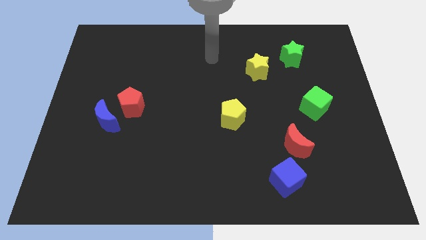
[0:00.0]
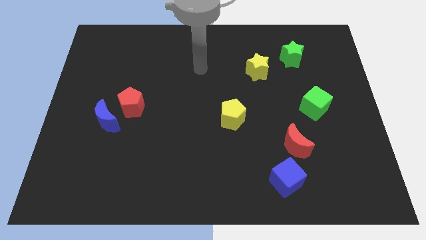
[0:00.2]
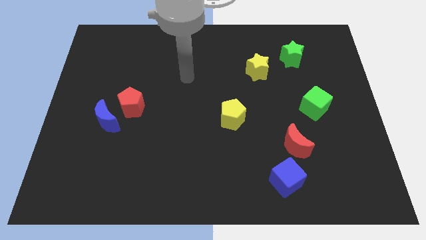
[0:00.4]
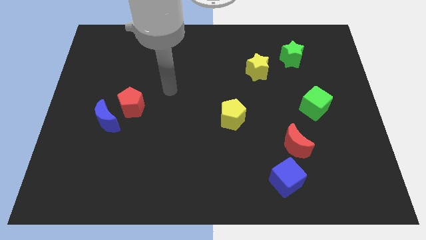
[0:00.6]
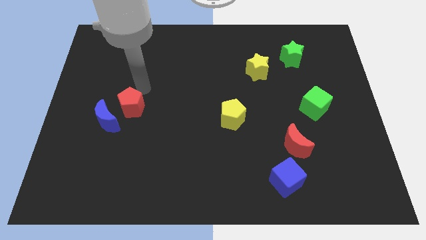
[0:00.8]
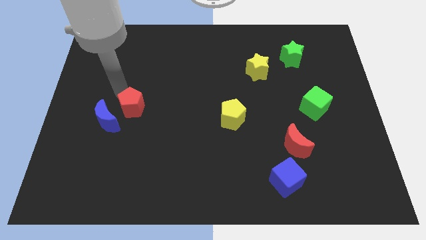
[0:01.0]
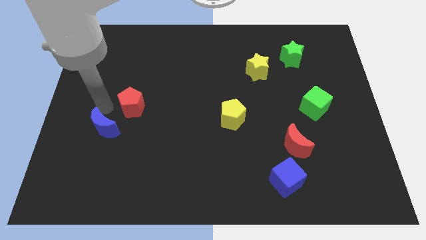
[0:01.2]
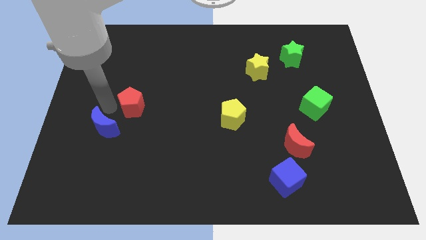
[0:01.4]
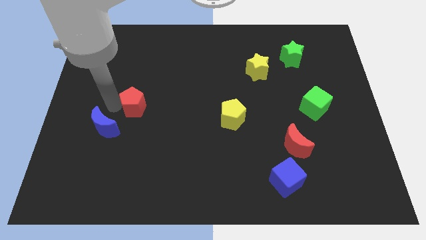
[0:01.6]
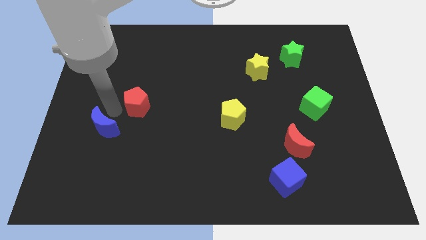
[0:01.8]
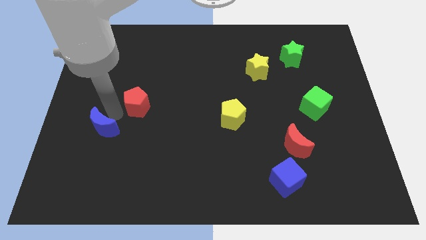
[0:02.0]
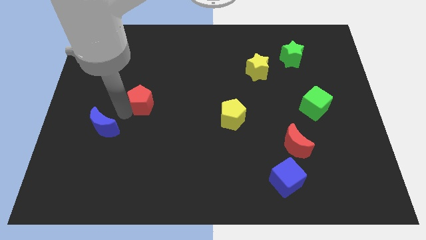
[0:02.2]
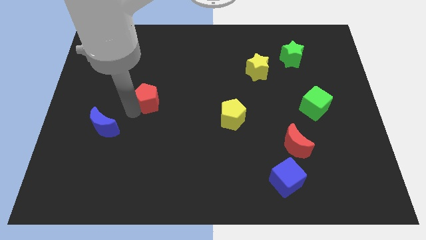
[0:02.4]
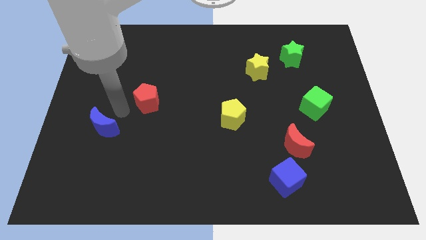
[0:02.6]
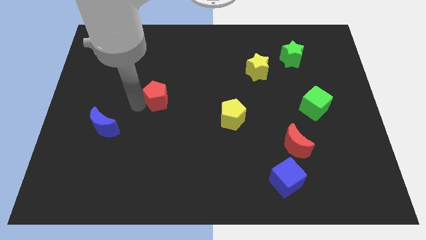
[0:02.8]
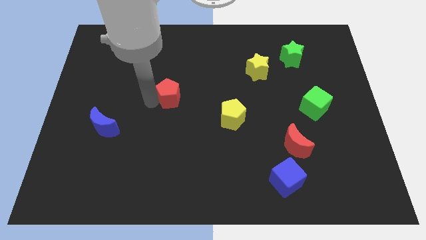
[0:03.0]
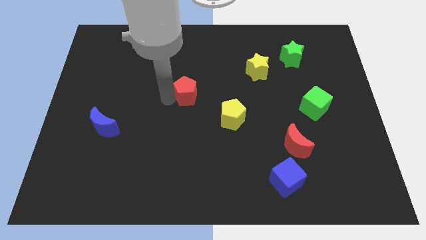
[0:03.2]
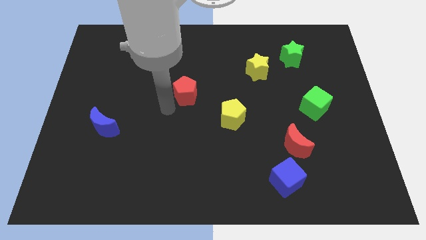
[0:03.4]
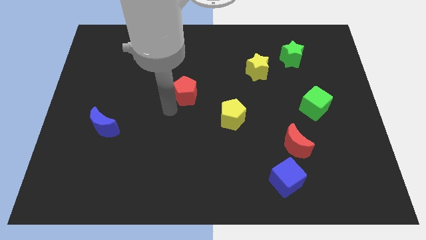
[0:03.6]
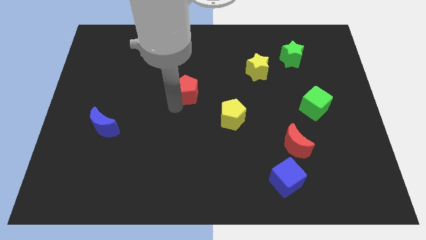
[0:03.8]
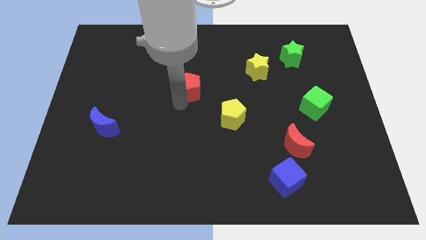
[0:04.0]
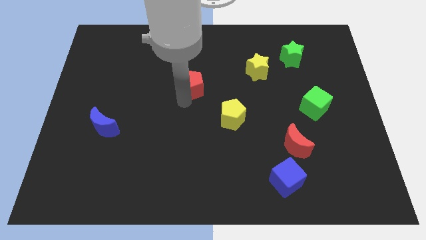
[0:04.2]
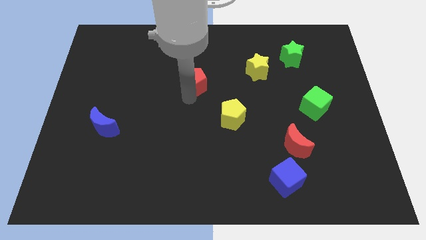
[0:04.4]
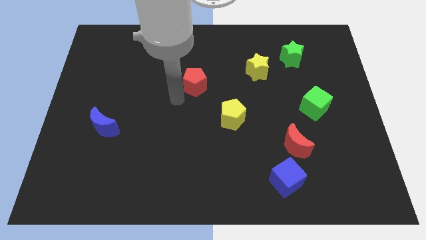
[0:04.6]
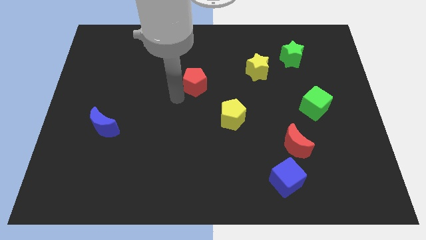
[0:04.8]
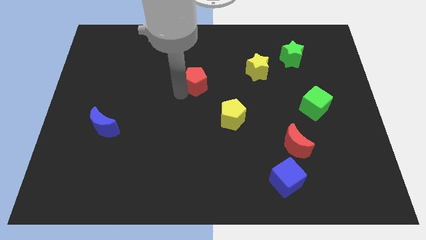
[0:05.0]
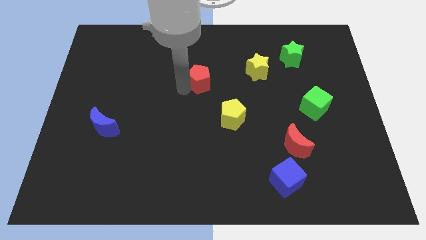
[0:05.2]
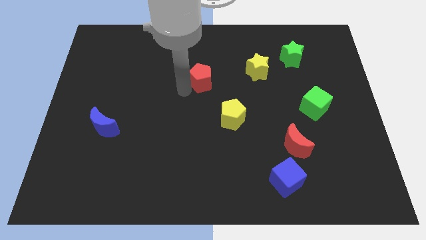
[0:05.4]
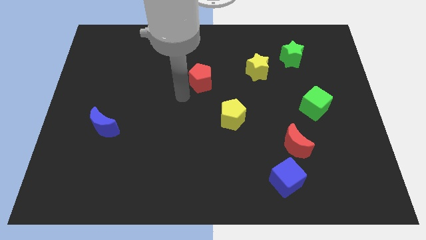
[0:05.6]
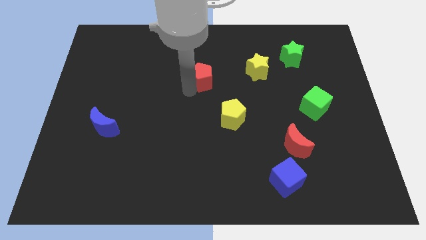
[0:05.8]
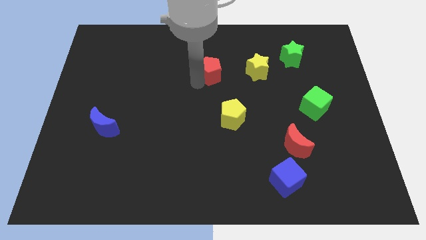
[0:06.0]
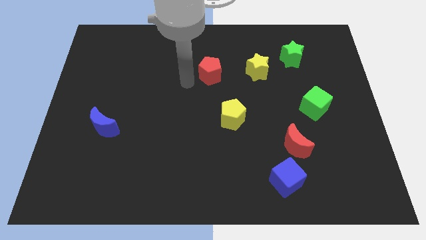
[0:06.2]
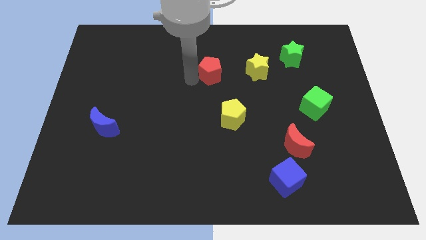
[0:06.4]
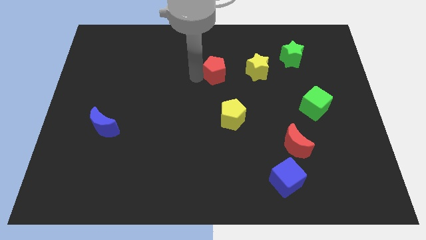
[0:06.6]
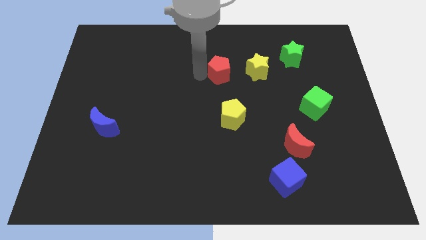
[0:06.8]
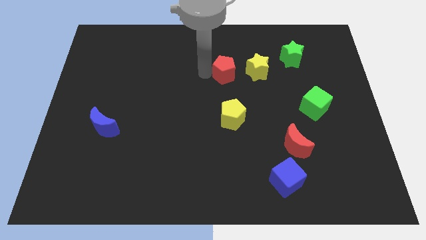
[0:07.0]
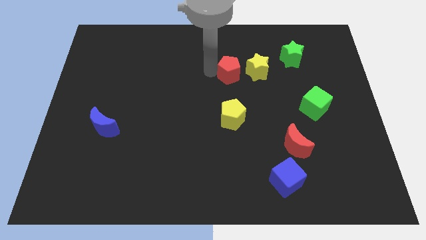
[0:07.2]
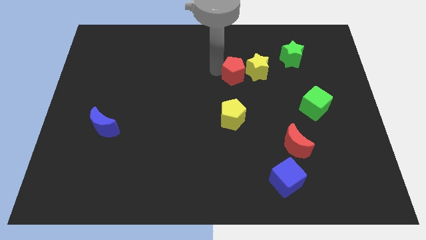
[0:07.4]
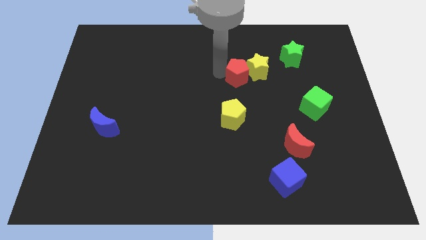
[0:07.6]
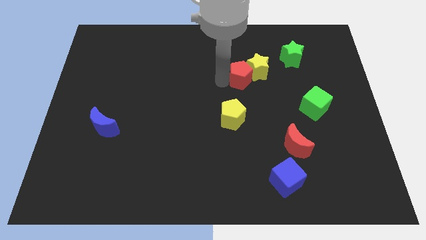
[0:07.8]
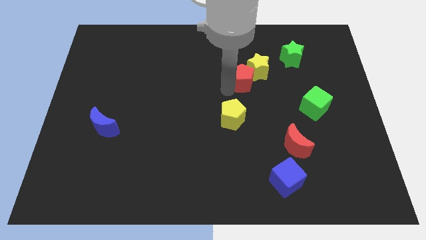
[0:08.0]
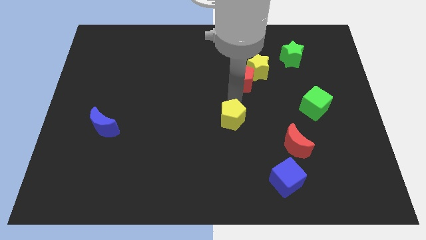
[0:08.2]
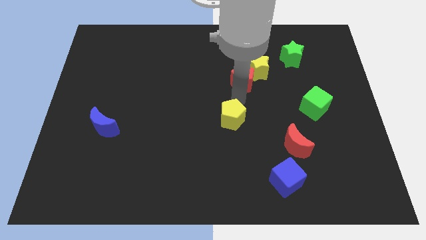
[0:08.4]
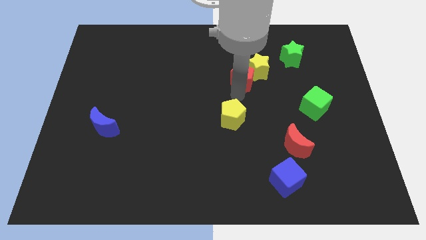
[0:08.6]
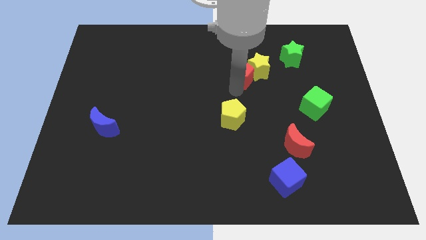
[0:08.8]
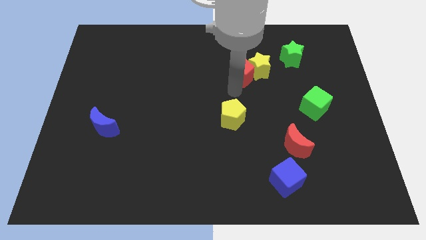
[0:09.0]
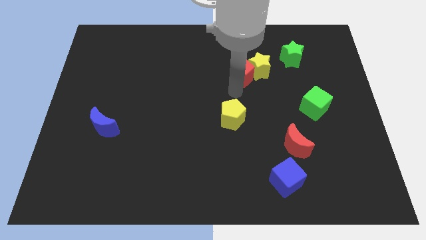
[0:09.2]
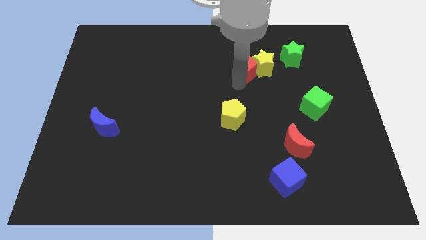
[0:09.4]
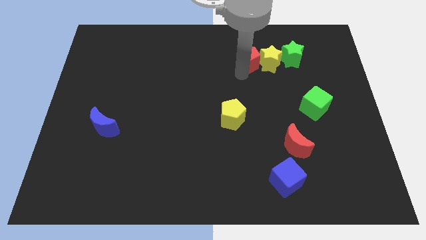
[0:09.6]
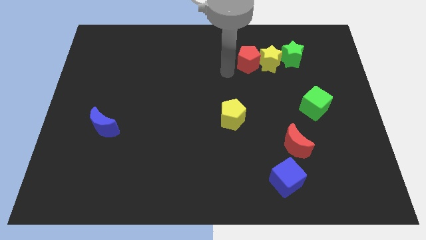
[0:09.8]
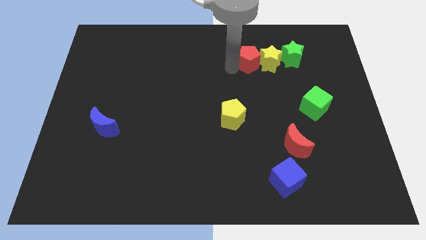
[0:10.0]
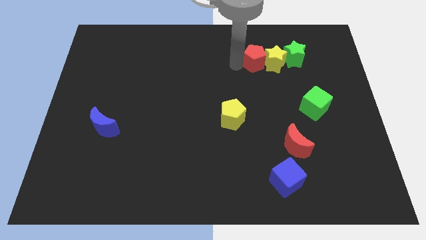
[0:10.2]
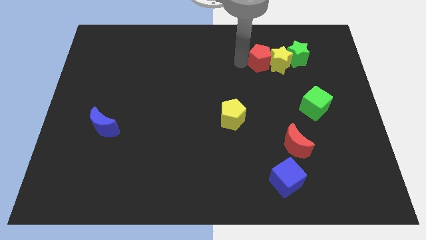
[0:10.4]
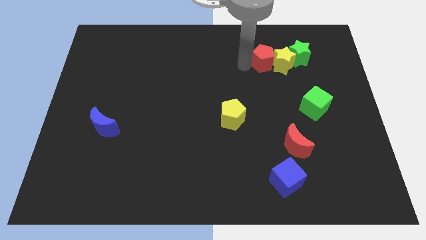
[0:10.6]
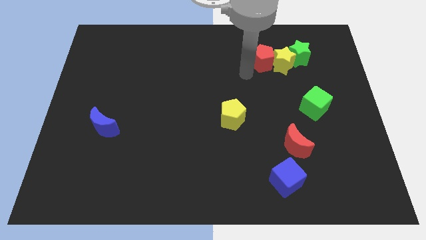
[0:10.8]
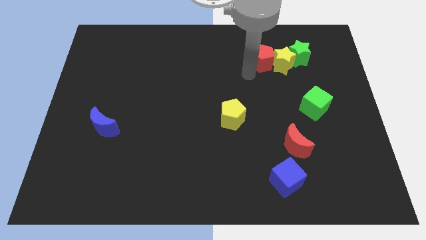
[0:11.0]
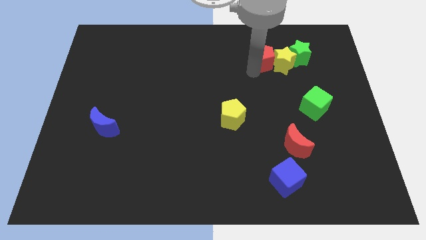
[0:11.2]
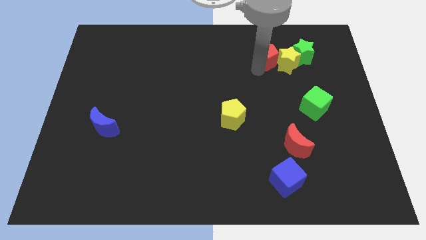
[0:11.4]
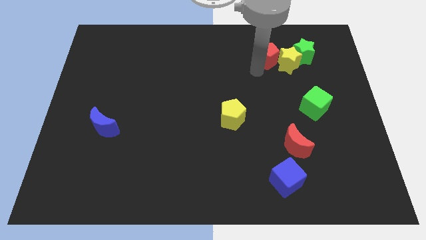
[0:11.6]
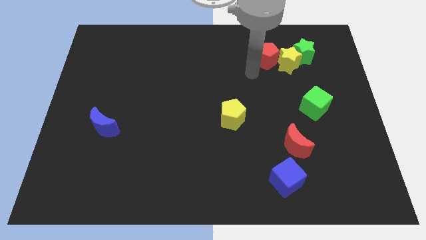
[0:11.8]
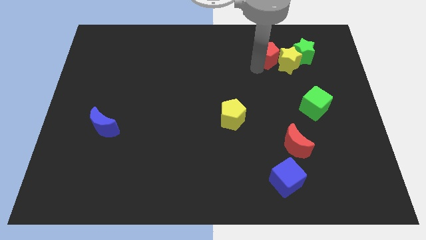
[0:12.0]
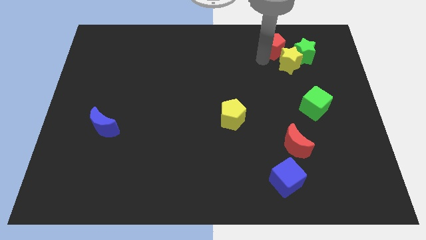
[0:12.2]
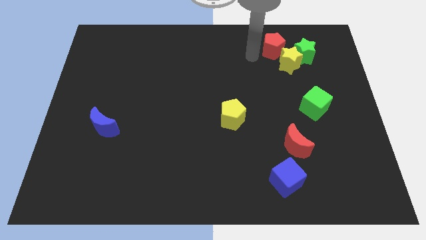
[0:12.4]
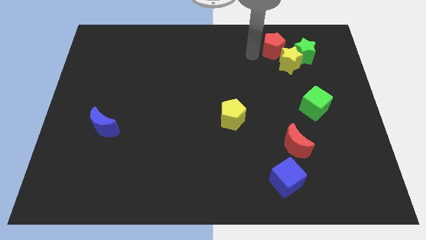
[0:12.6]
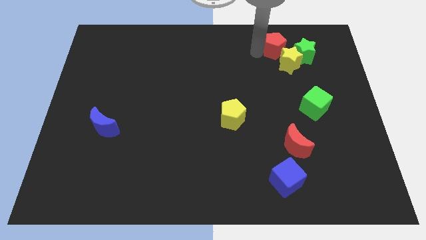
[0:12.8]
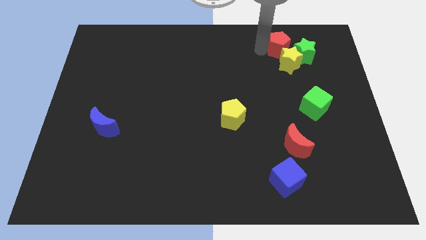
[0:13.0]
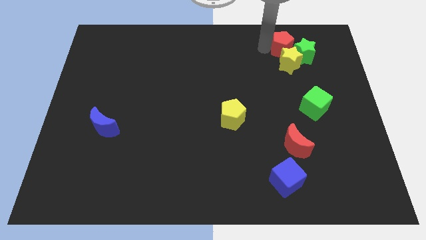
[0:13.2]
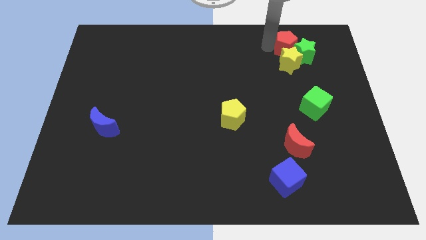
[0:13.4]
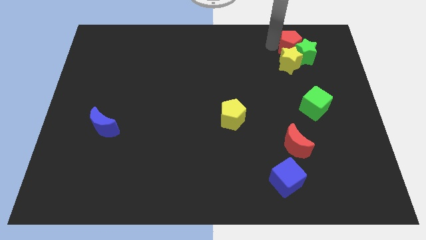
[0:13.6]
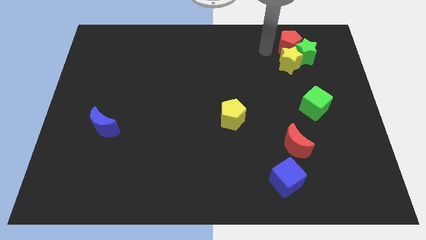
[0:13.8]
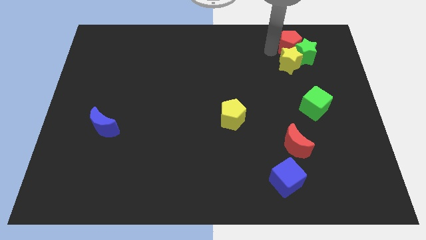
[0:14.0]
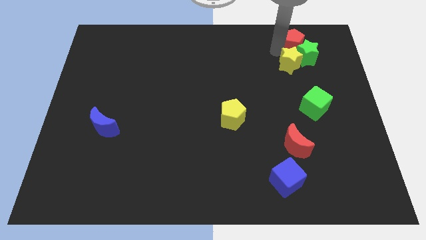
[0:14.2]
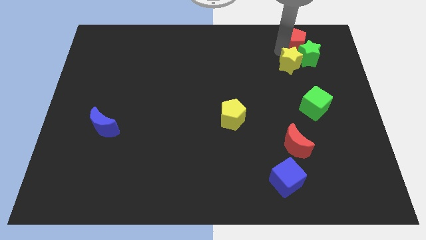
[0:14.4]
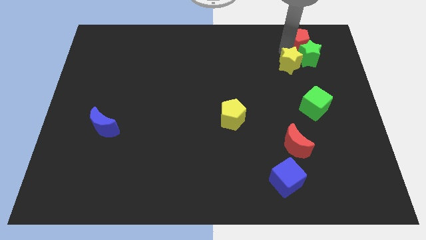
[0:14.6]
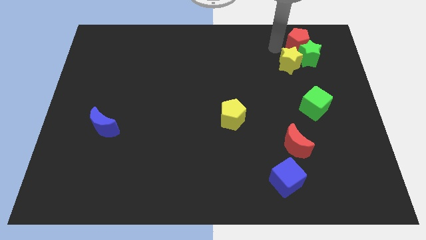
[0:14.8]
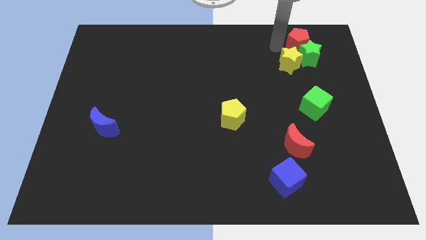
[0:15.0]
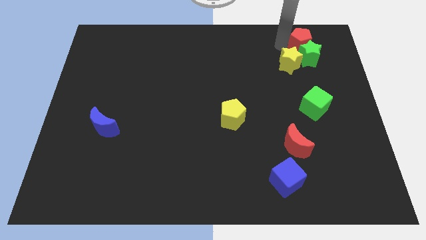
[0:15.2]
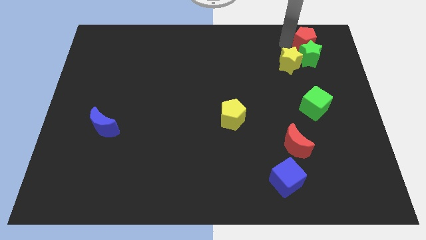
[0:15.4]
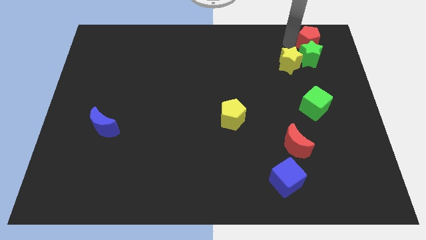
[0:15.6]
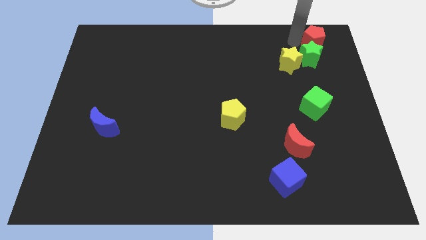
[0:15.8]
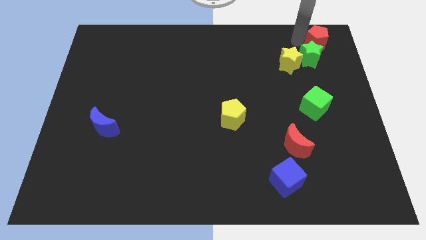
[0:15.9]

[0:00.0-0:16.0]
put the red pentagon to the top right
